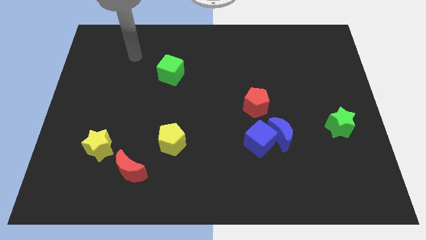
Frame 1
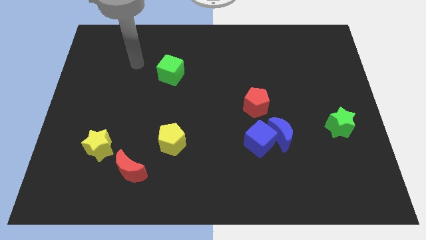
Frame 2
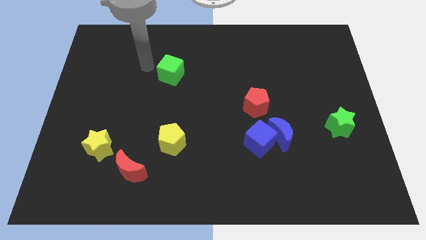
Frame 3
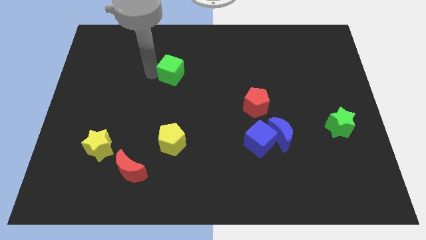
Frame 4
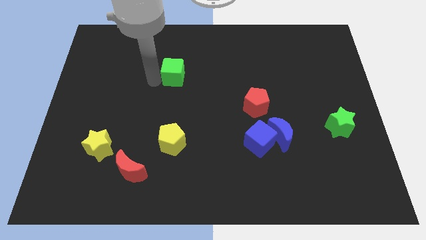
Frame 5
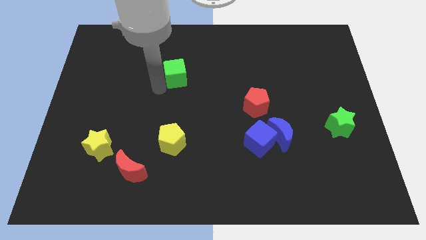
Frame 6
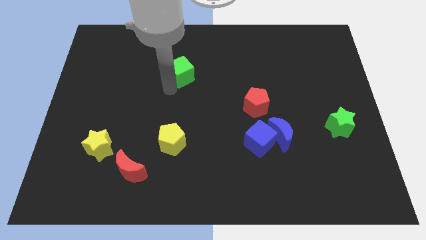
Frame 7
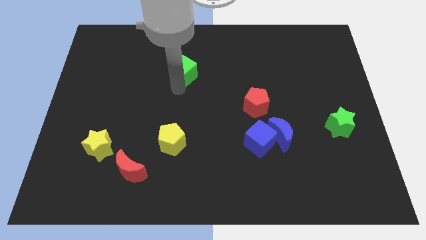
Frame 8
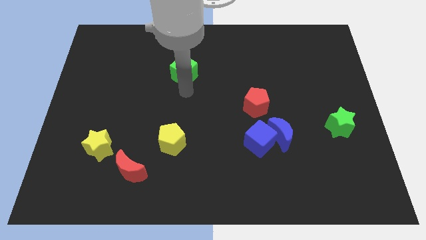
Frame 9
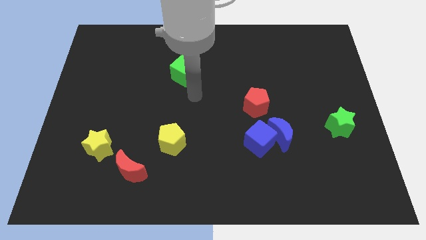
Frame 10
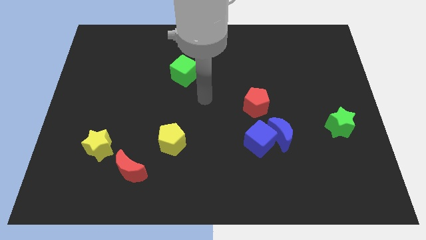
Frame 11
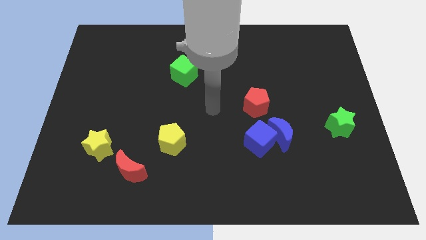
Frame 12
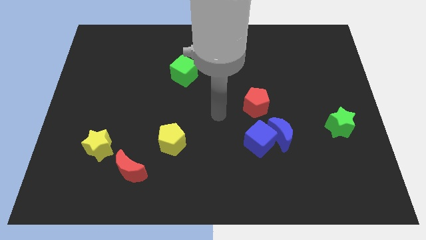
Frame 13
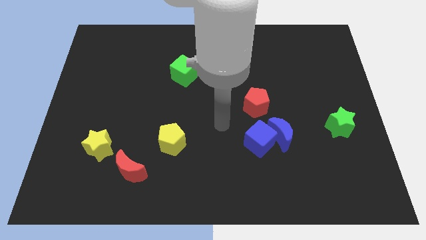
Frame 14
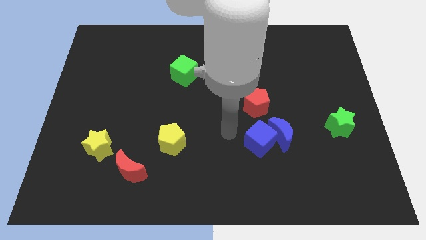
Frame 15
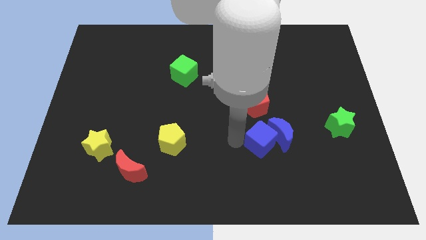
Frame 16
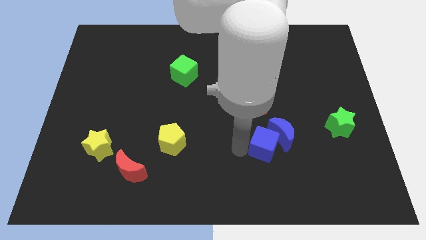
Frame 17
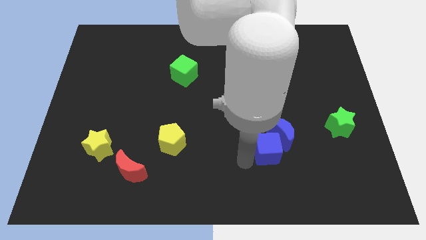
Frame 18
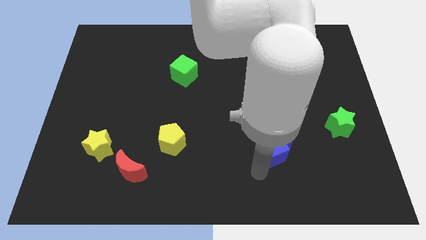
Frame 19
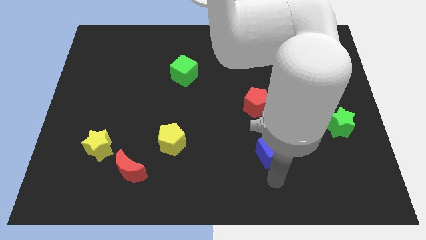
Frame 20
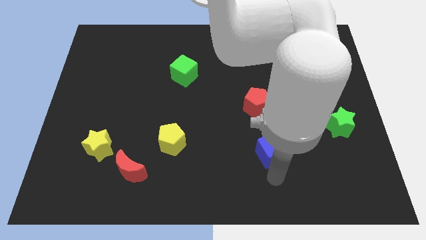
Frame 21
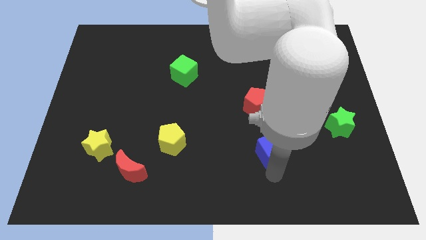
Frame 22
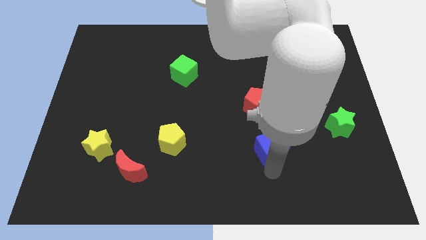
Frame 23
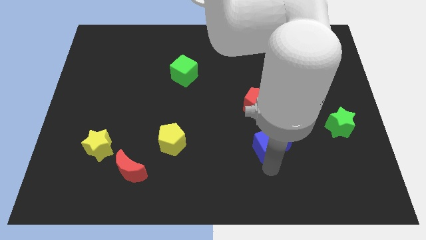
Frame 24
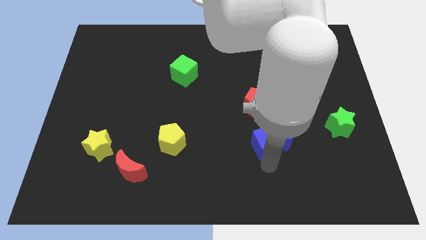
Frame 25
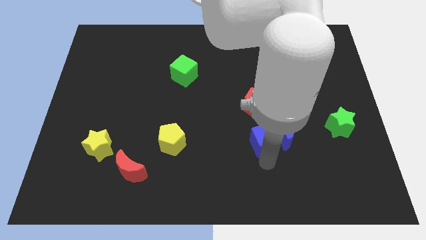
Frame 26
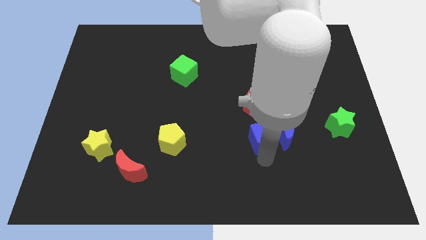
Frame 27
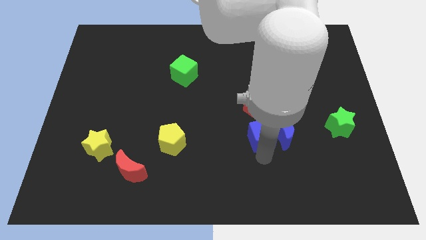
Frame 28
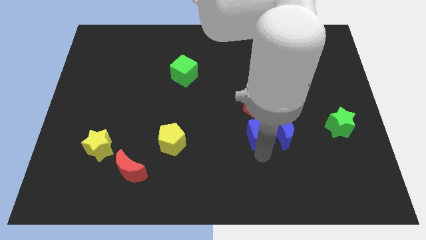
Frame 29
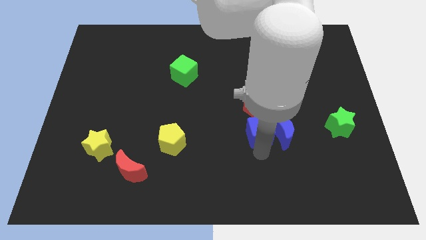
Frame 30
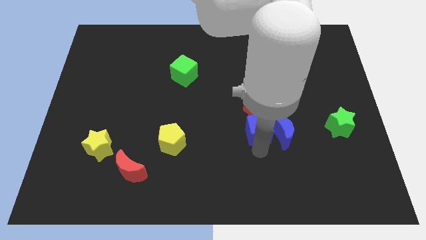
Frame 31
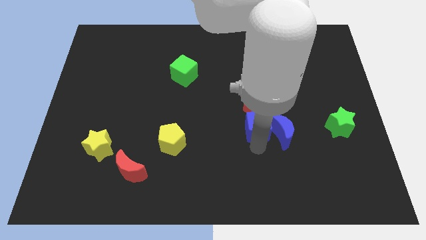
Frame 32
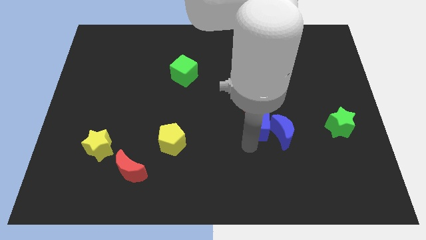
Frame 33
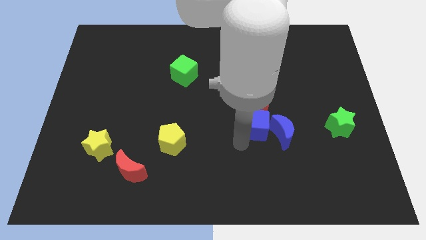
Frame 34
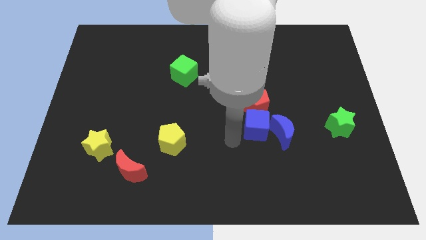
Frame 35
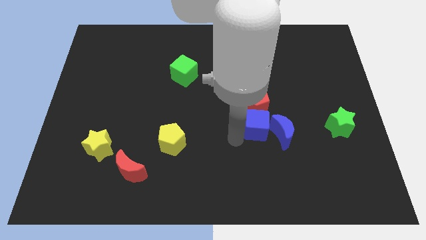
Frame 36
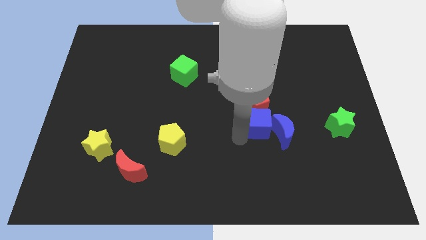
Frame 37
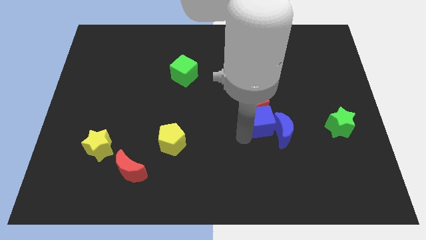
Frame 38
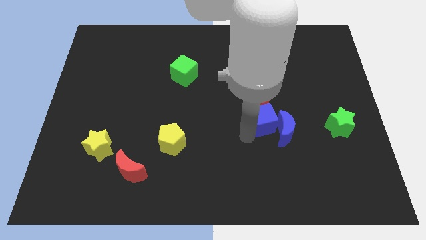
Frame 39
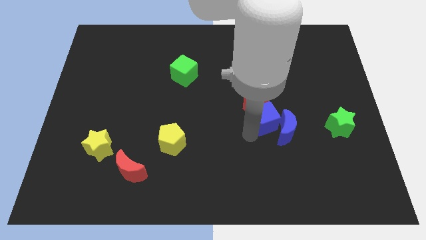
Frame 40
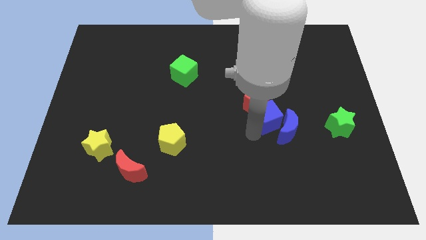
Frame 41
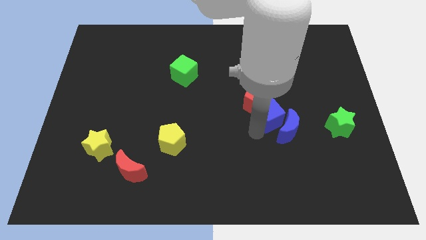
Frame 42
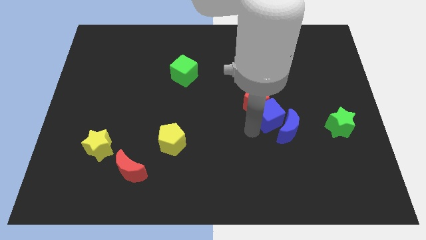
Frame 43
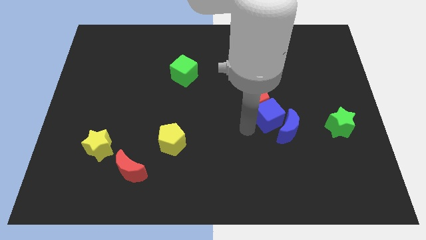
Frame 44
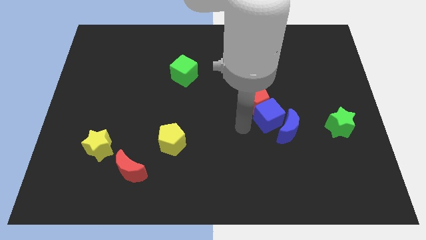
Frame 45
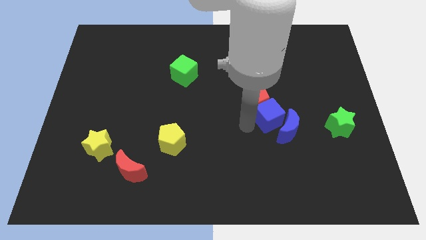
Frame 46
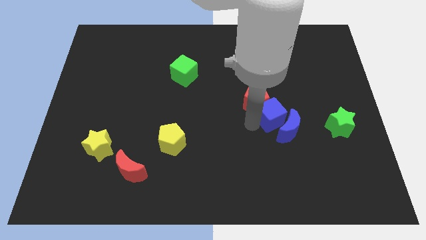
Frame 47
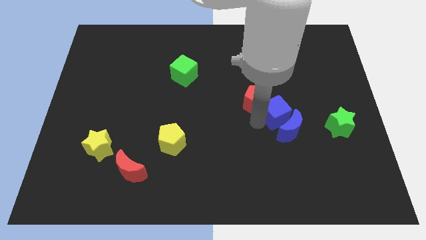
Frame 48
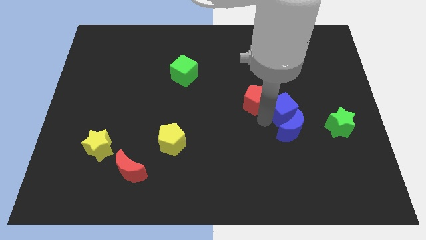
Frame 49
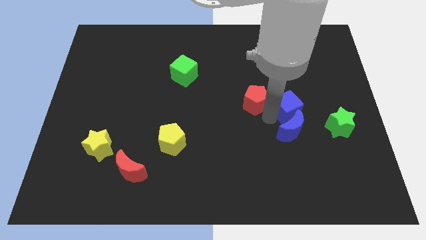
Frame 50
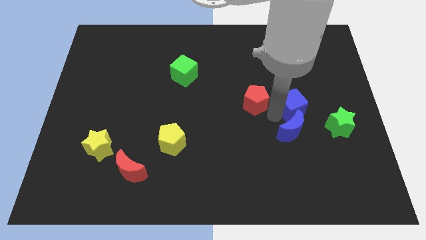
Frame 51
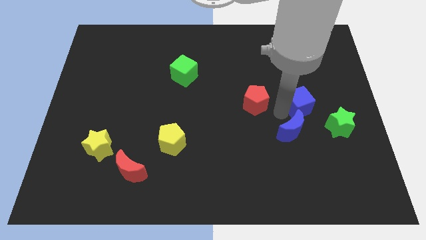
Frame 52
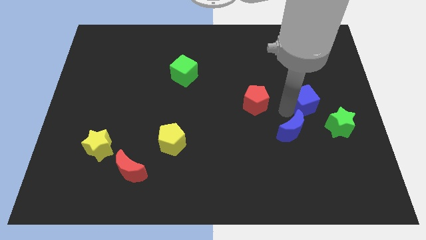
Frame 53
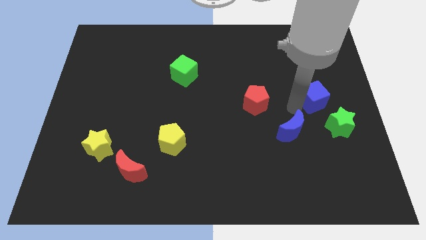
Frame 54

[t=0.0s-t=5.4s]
push the blue cube above the green star

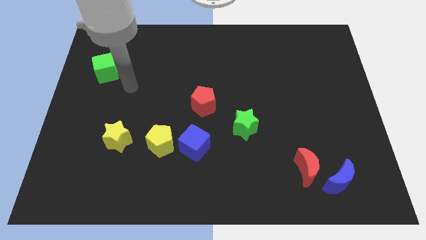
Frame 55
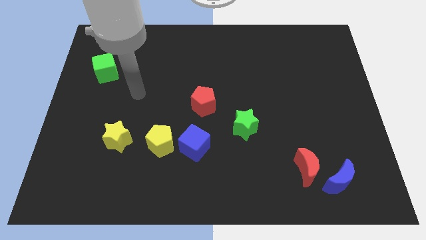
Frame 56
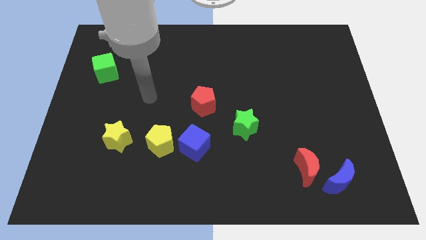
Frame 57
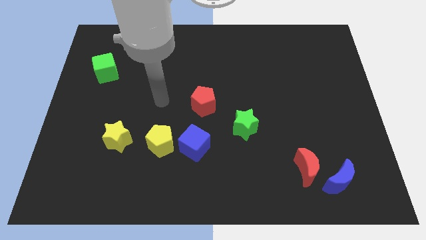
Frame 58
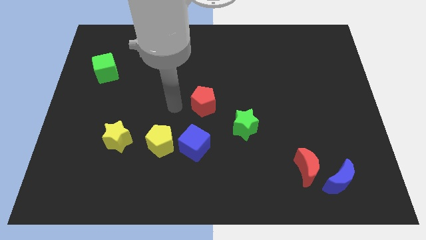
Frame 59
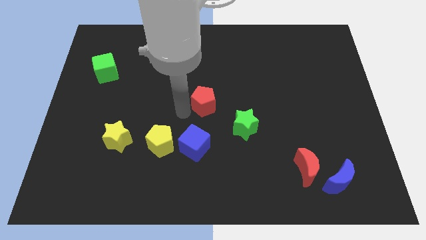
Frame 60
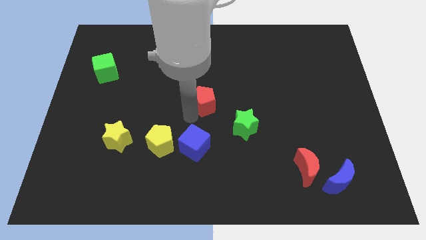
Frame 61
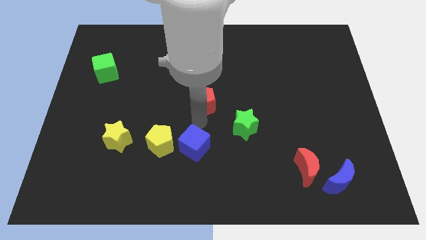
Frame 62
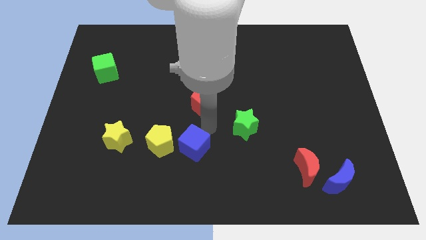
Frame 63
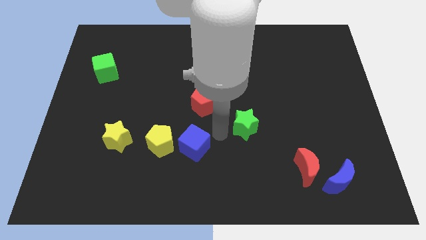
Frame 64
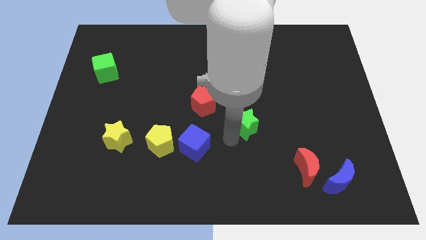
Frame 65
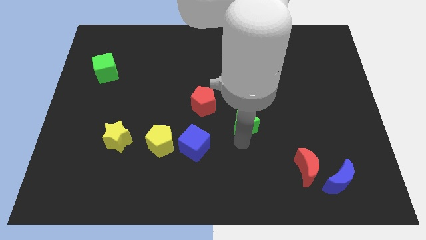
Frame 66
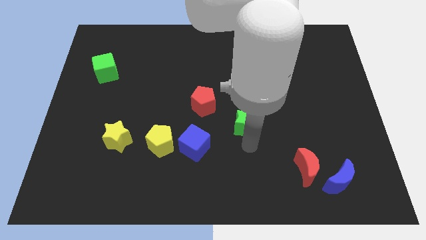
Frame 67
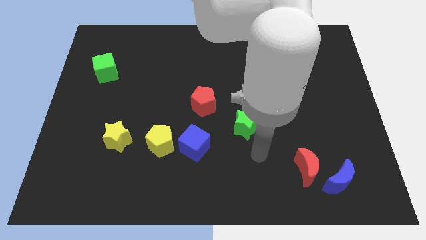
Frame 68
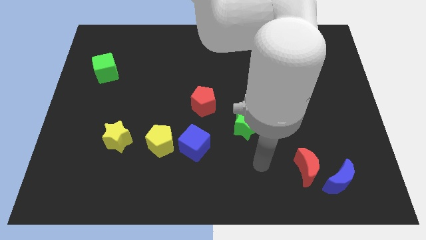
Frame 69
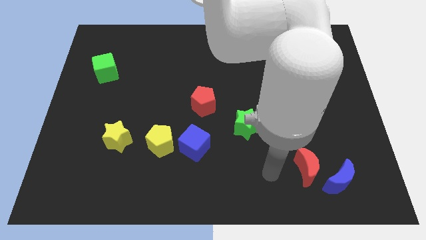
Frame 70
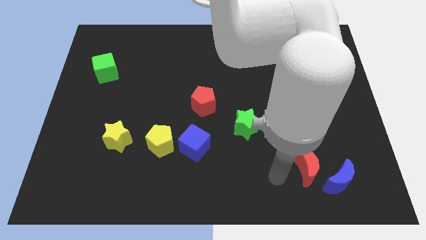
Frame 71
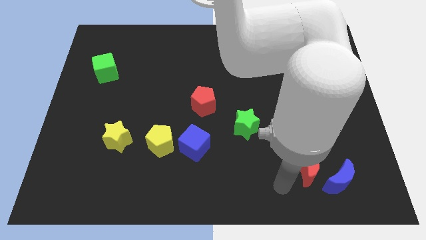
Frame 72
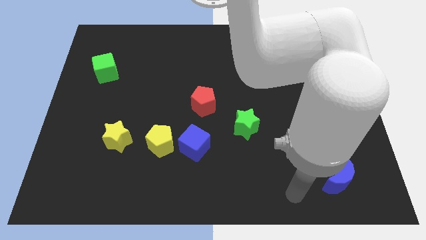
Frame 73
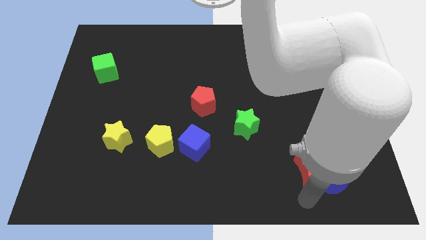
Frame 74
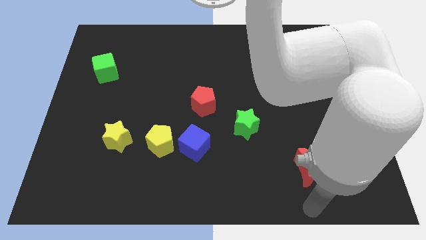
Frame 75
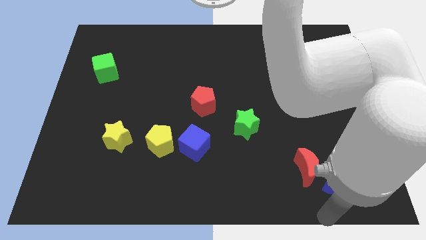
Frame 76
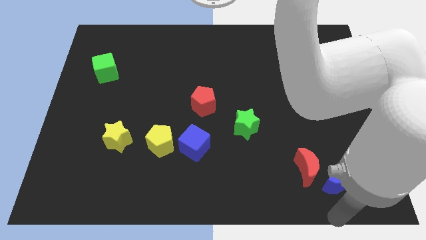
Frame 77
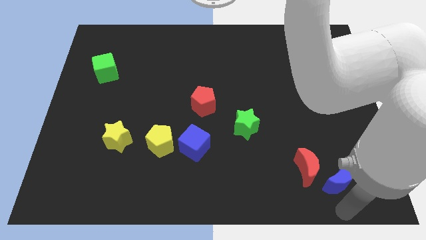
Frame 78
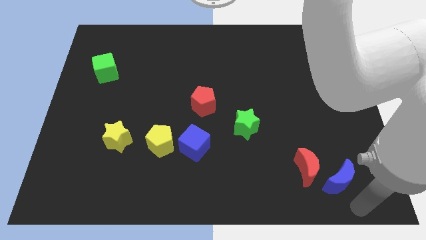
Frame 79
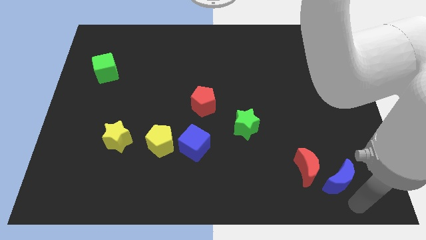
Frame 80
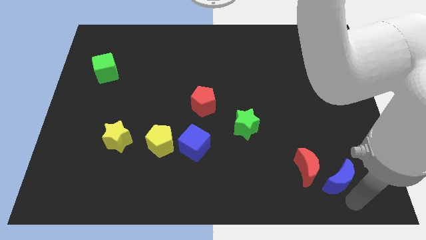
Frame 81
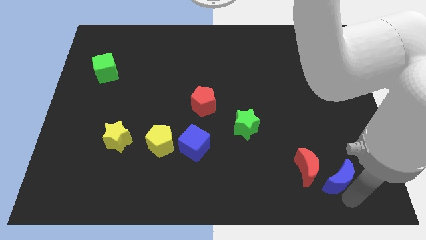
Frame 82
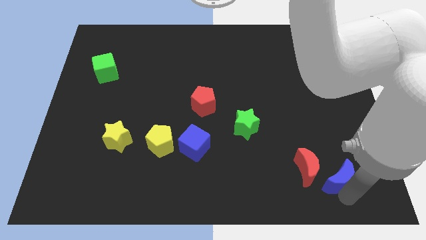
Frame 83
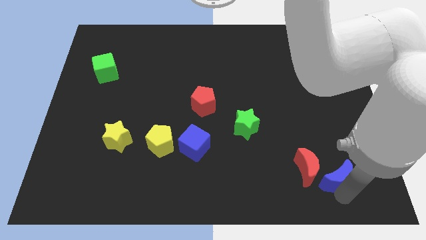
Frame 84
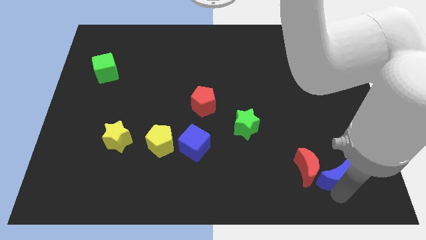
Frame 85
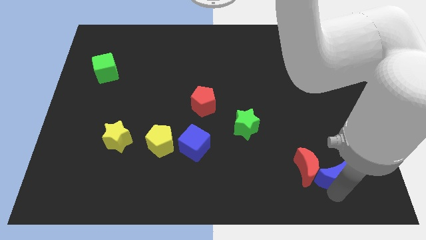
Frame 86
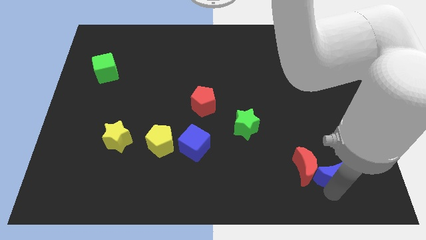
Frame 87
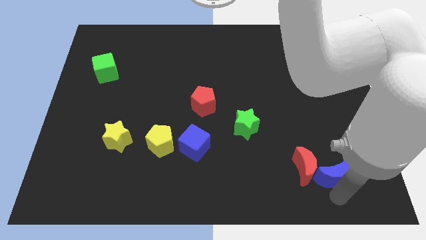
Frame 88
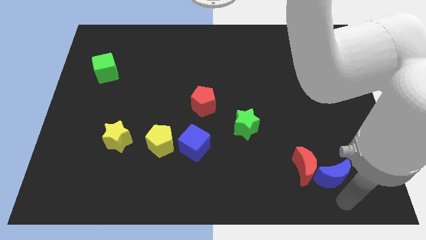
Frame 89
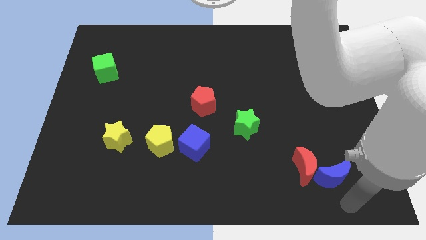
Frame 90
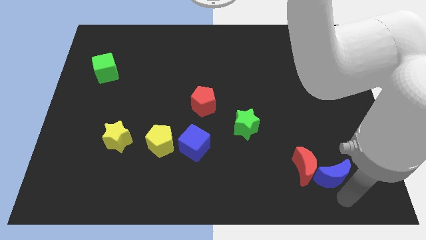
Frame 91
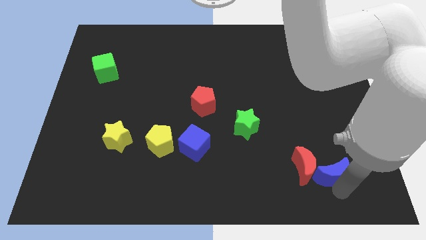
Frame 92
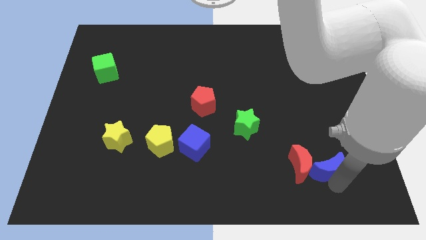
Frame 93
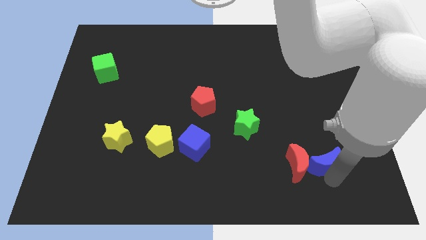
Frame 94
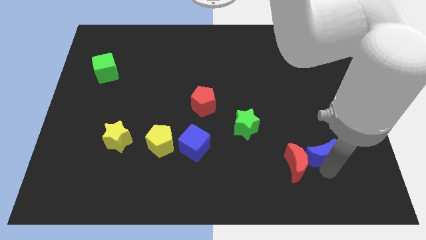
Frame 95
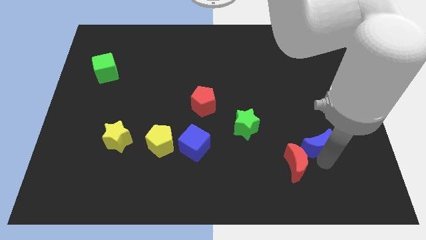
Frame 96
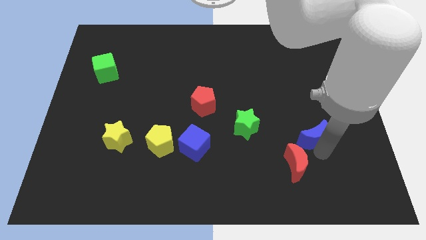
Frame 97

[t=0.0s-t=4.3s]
put the blue moon above the red moon
